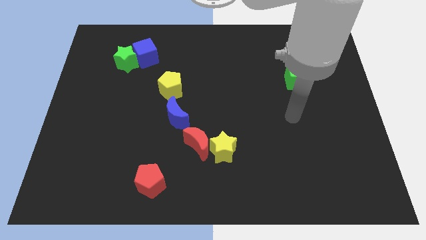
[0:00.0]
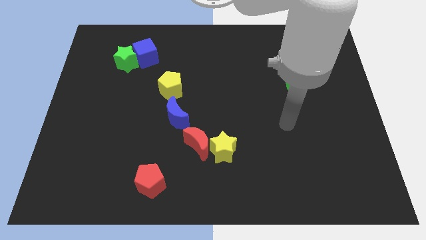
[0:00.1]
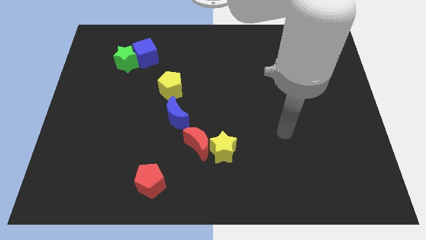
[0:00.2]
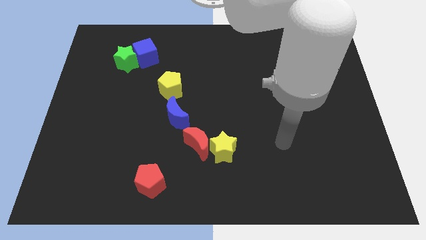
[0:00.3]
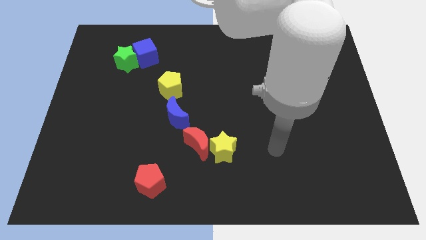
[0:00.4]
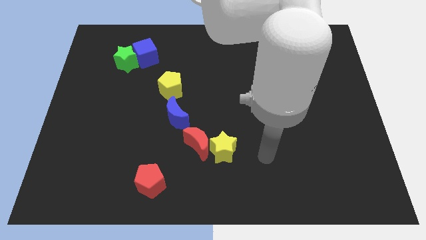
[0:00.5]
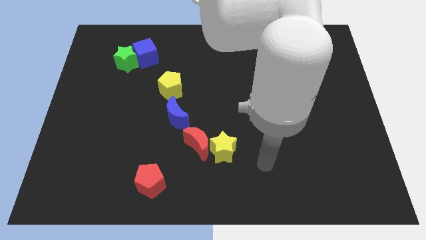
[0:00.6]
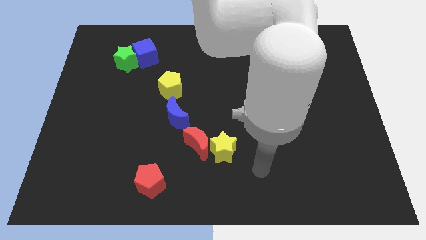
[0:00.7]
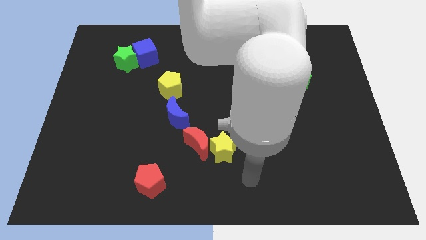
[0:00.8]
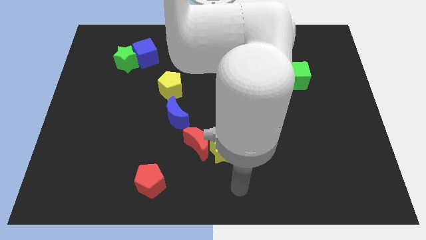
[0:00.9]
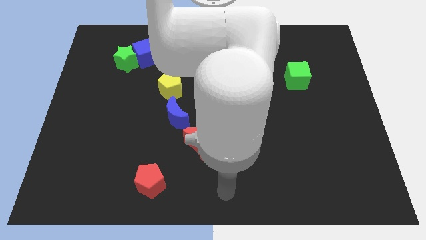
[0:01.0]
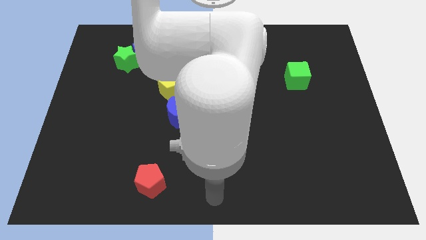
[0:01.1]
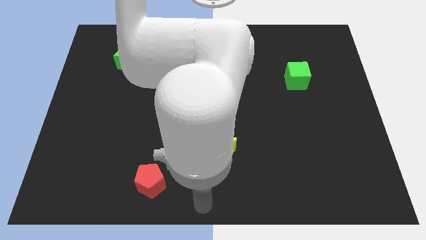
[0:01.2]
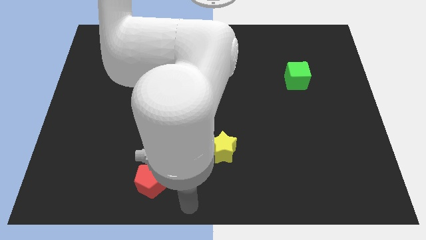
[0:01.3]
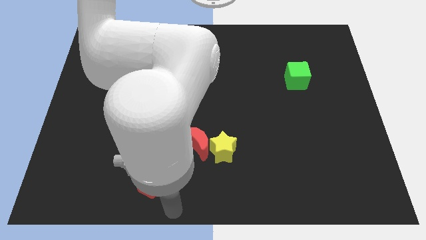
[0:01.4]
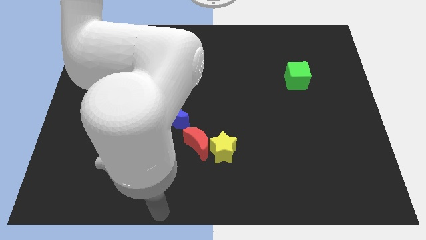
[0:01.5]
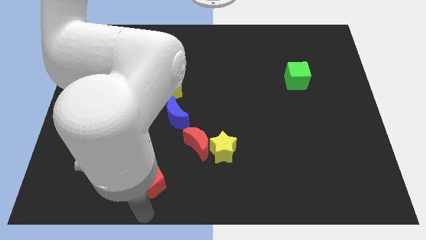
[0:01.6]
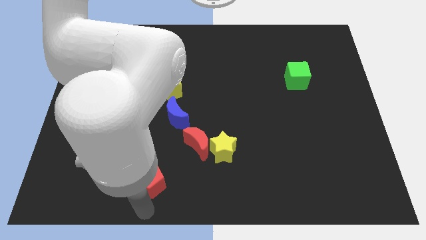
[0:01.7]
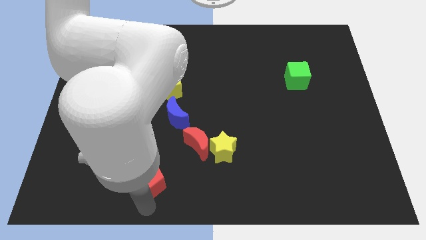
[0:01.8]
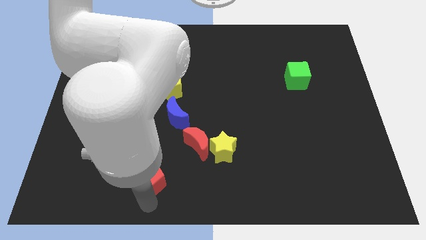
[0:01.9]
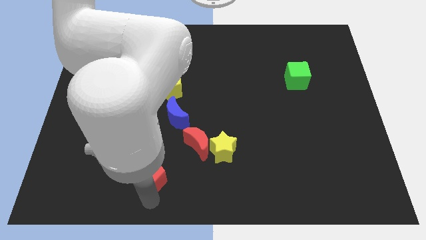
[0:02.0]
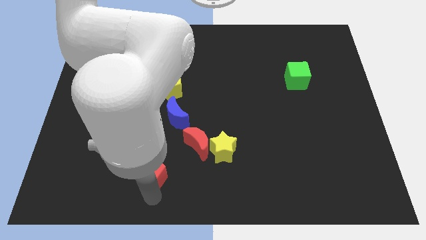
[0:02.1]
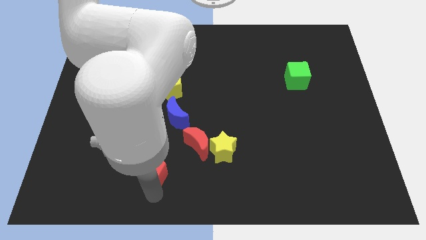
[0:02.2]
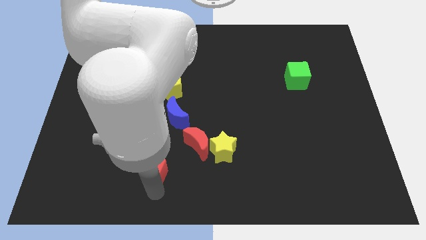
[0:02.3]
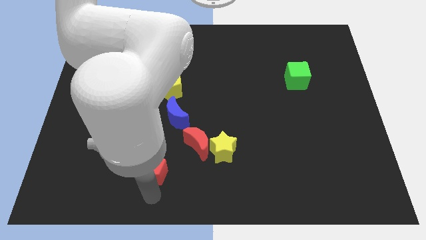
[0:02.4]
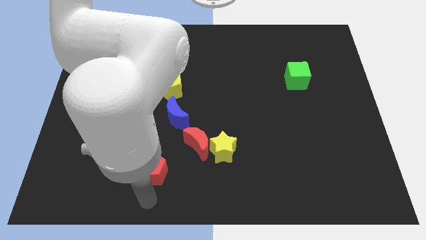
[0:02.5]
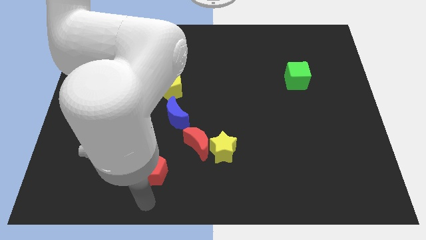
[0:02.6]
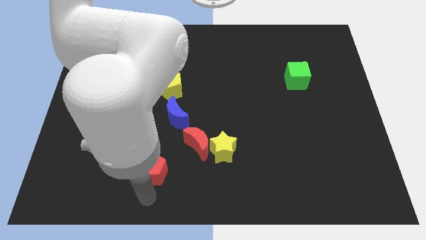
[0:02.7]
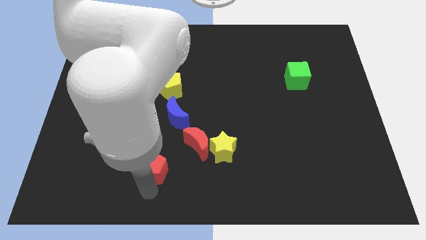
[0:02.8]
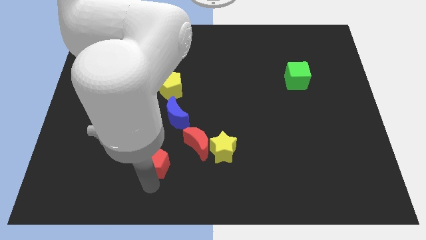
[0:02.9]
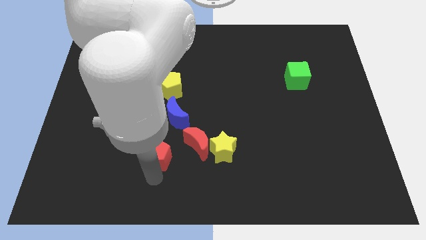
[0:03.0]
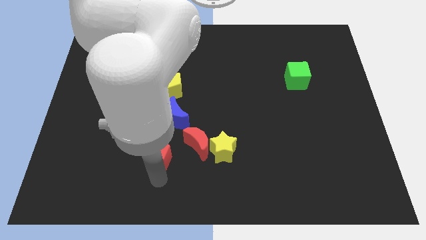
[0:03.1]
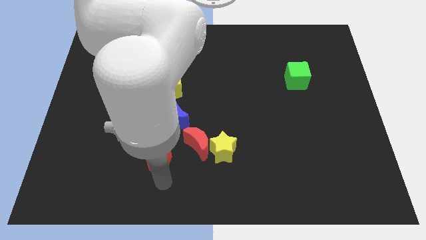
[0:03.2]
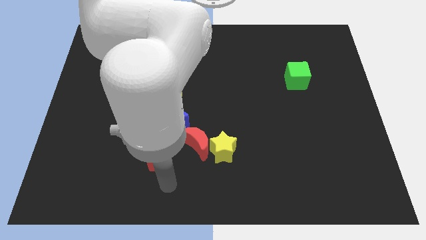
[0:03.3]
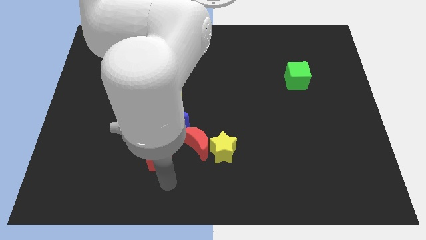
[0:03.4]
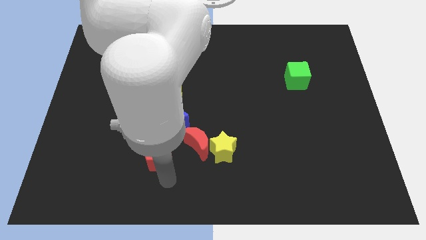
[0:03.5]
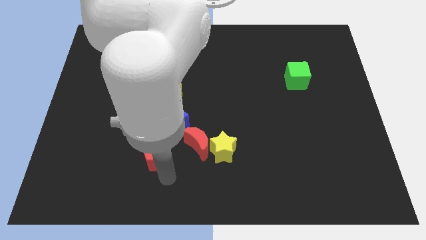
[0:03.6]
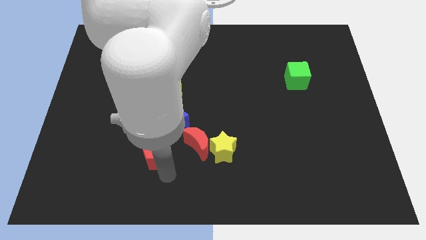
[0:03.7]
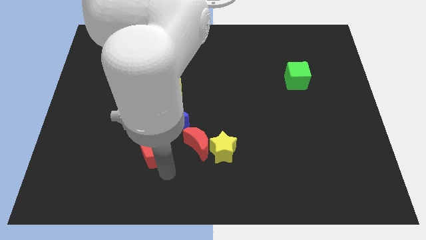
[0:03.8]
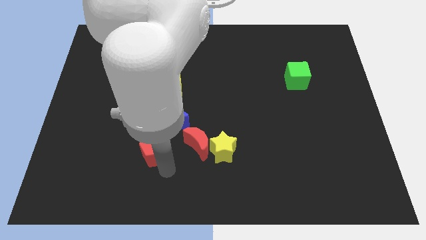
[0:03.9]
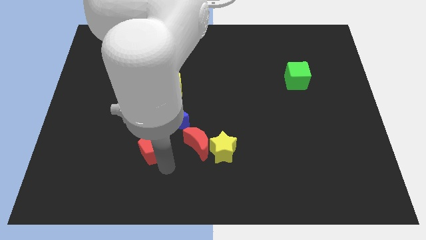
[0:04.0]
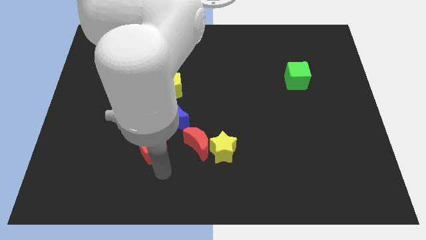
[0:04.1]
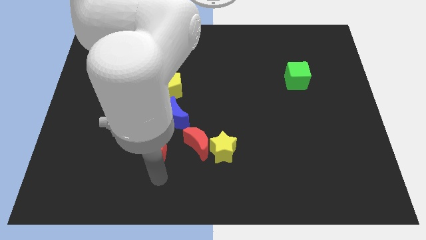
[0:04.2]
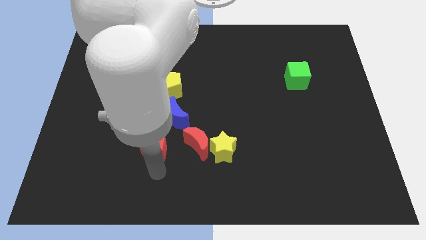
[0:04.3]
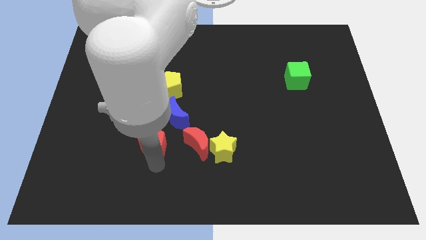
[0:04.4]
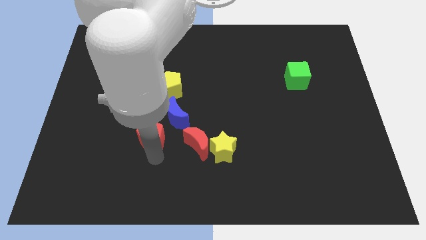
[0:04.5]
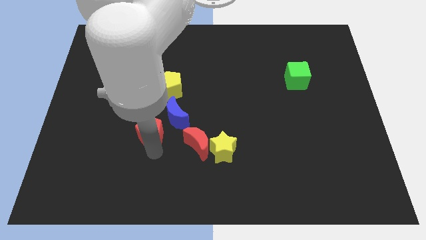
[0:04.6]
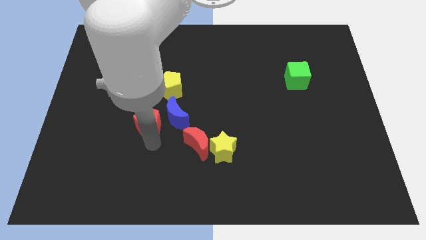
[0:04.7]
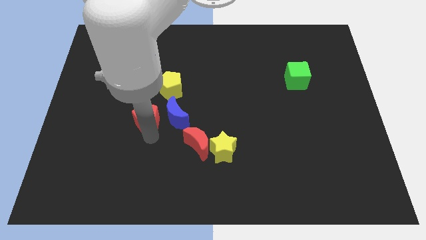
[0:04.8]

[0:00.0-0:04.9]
move the red pentagon to the bottom left of the yellow pentagon

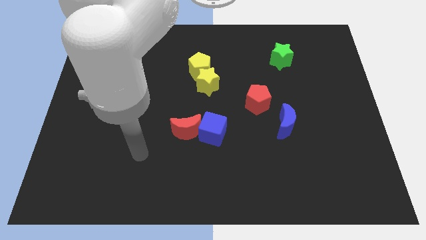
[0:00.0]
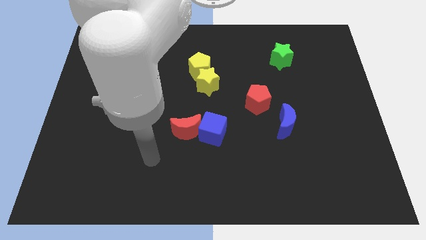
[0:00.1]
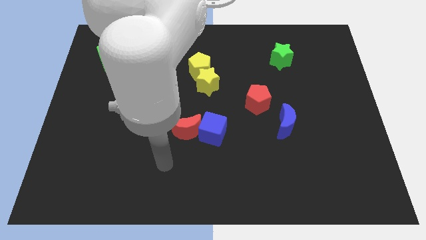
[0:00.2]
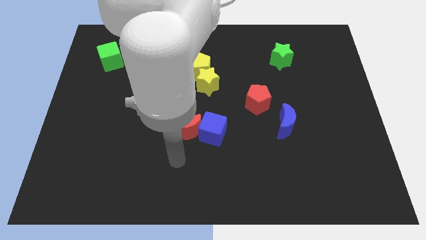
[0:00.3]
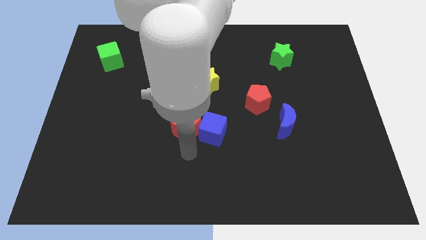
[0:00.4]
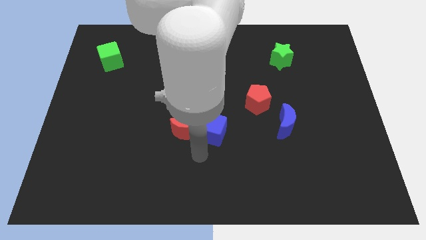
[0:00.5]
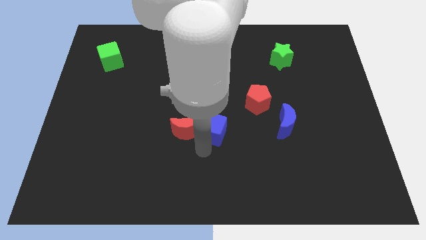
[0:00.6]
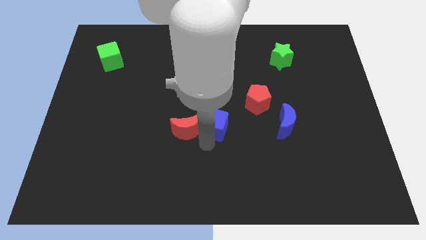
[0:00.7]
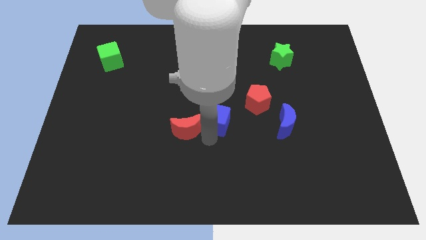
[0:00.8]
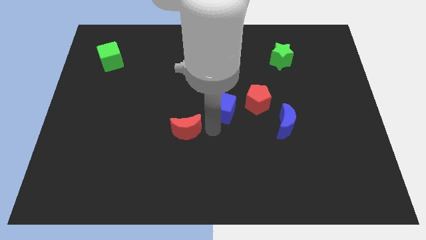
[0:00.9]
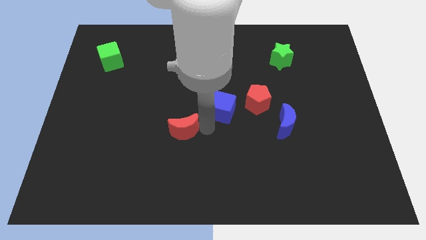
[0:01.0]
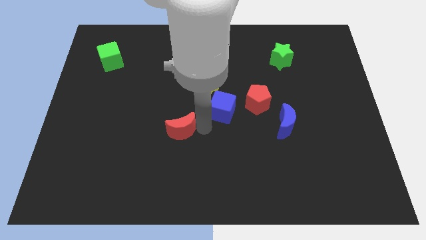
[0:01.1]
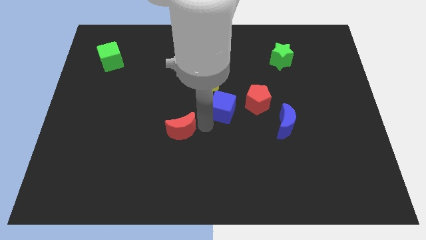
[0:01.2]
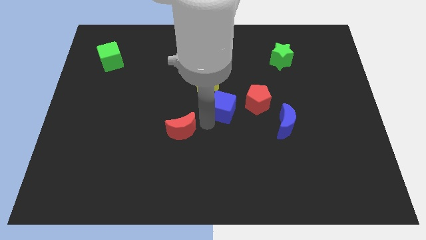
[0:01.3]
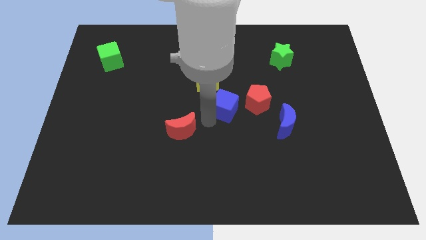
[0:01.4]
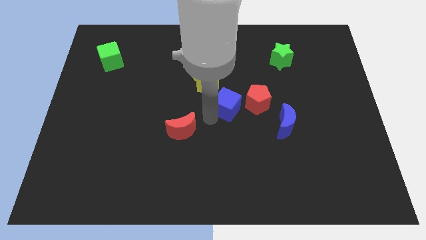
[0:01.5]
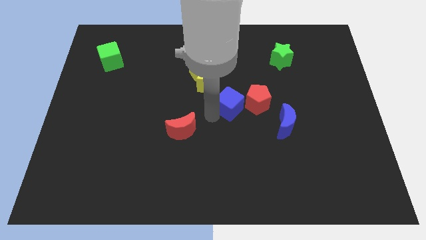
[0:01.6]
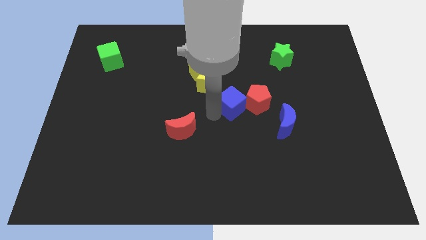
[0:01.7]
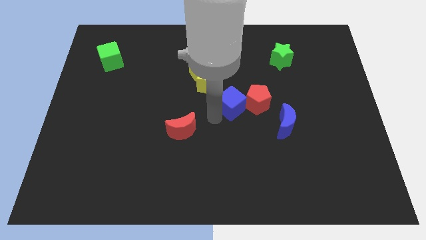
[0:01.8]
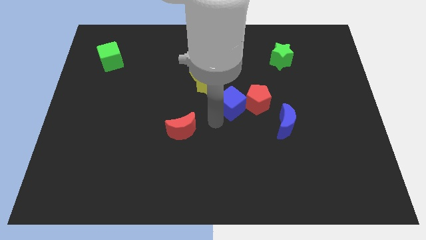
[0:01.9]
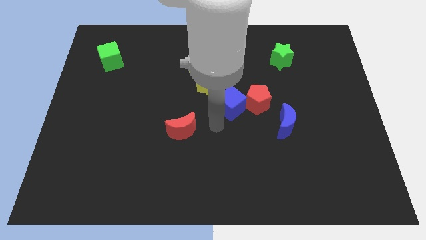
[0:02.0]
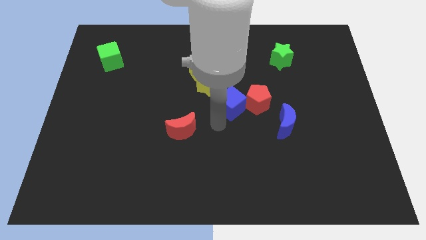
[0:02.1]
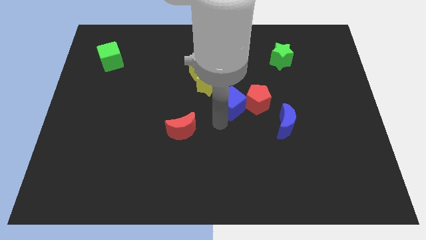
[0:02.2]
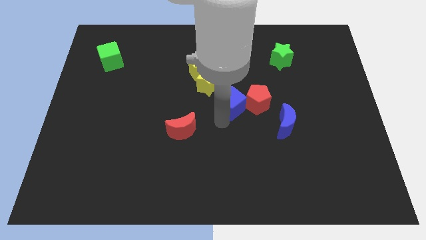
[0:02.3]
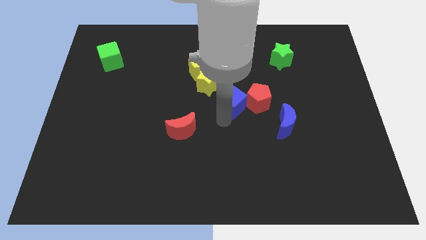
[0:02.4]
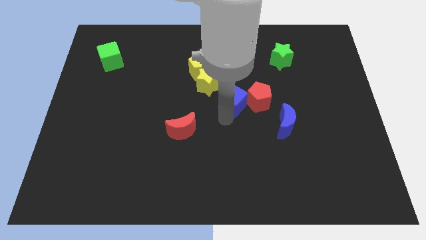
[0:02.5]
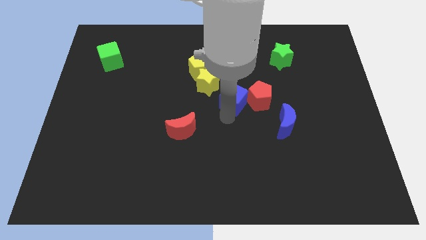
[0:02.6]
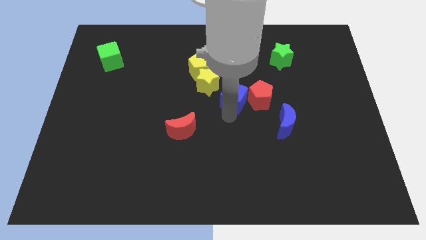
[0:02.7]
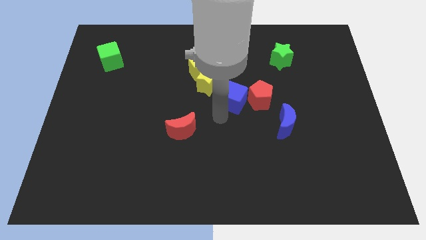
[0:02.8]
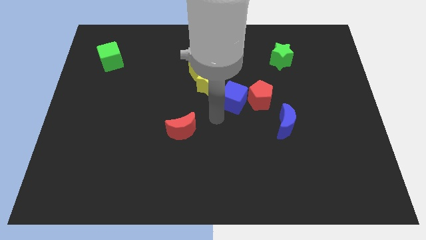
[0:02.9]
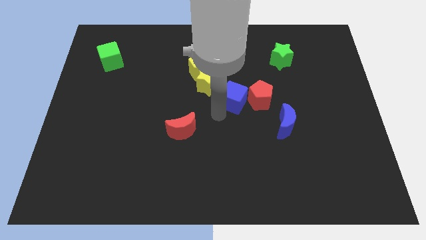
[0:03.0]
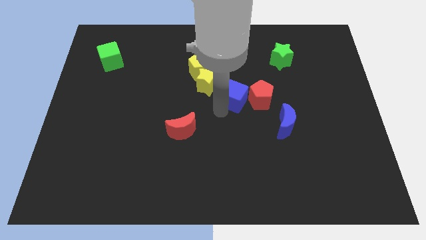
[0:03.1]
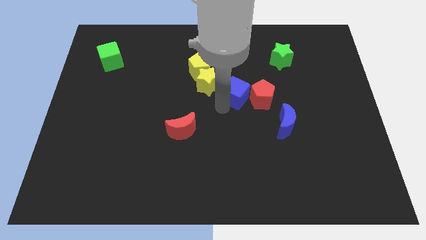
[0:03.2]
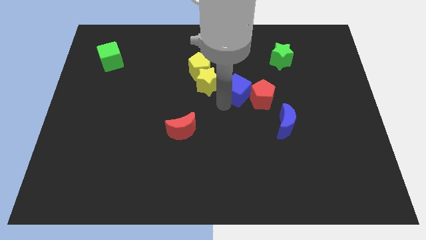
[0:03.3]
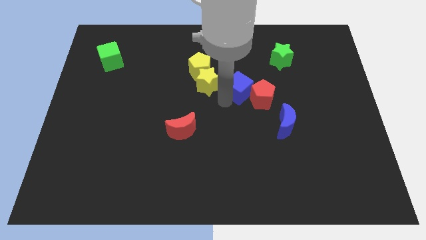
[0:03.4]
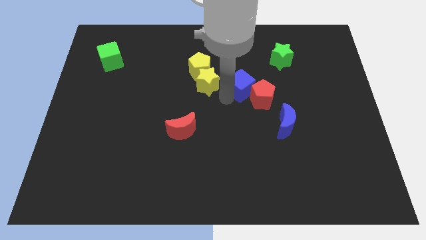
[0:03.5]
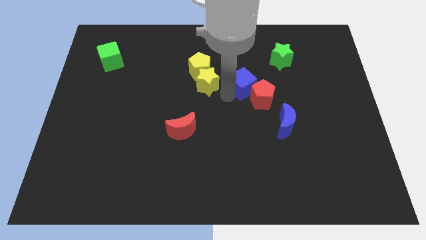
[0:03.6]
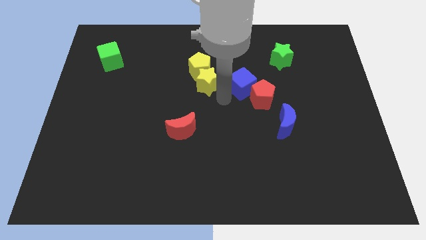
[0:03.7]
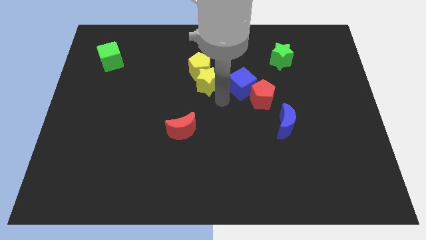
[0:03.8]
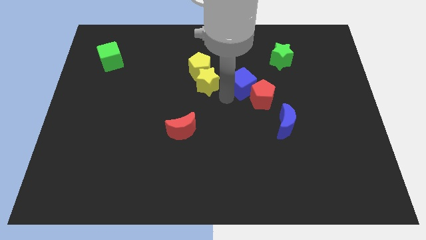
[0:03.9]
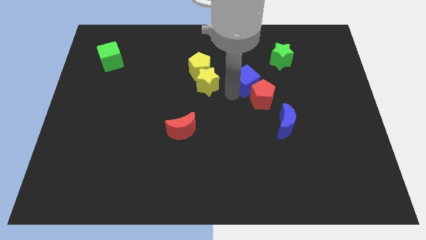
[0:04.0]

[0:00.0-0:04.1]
put the blue cube diagonally down and to the left of the green star
